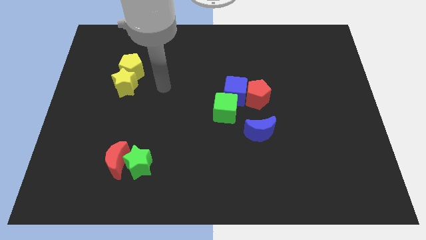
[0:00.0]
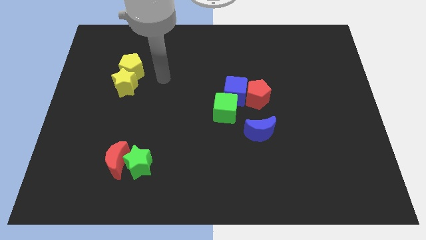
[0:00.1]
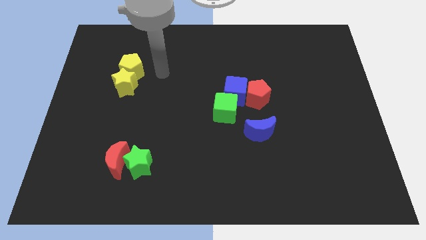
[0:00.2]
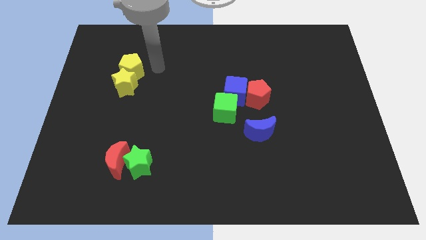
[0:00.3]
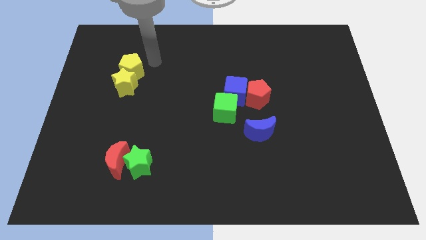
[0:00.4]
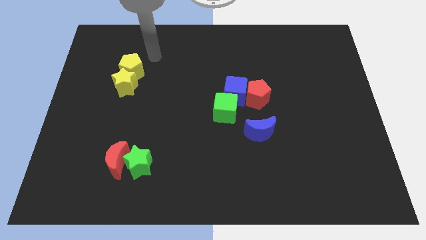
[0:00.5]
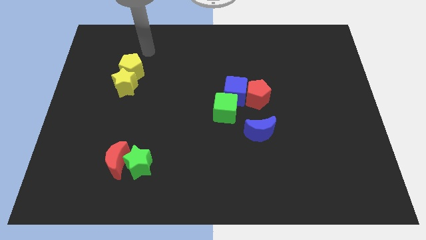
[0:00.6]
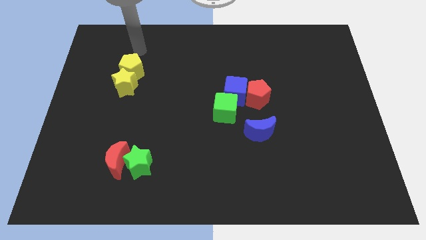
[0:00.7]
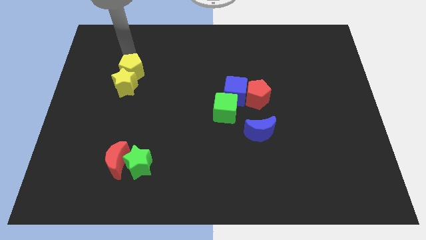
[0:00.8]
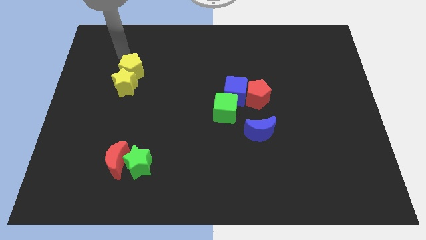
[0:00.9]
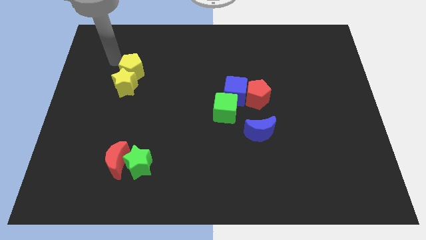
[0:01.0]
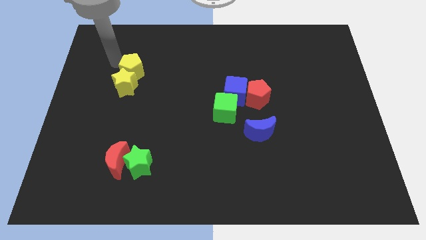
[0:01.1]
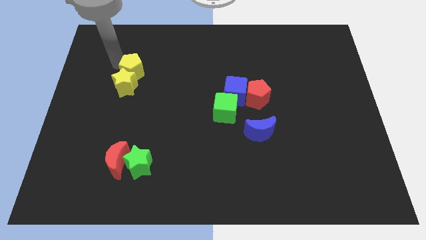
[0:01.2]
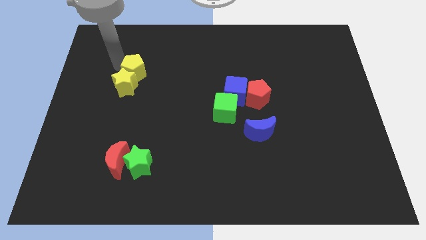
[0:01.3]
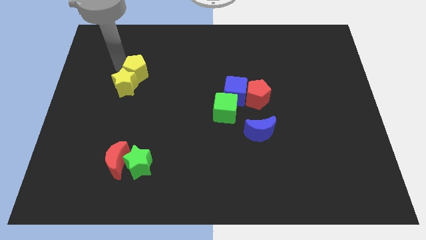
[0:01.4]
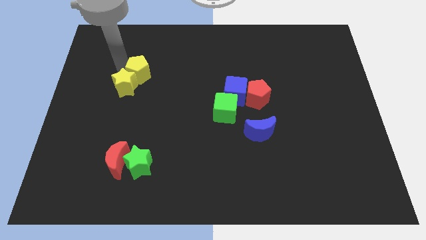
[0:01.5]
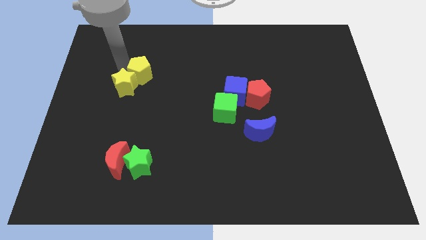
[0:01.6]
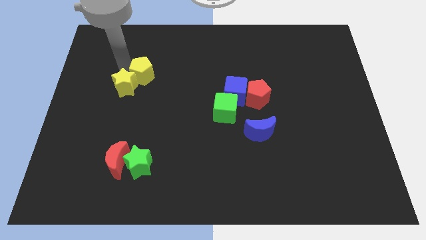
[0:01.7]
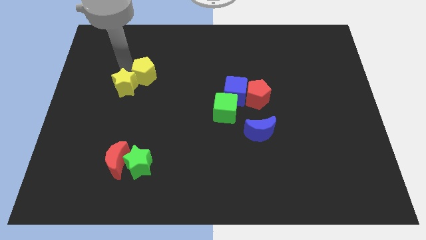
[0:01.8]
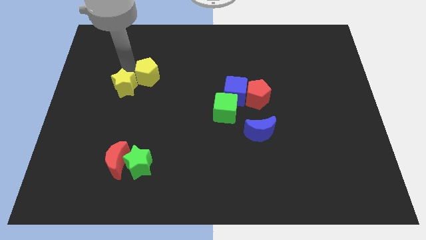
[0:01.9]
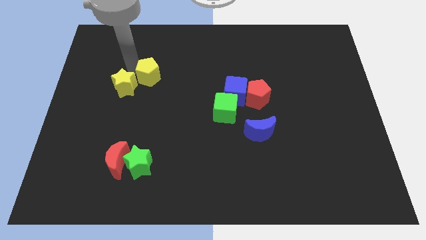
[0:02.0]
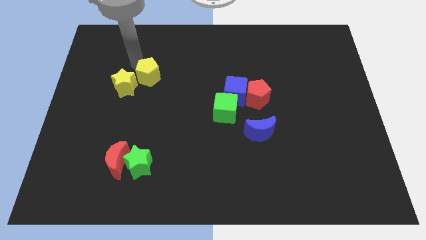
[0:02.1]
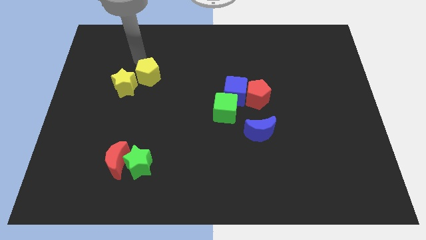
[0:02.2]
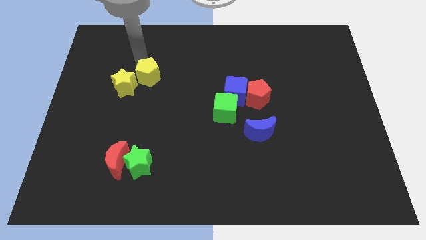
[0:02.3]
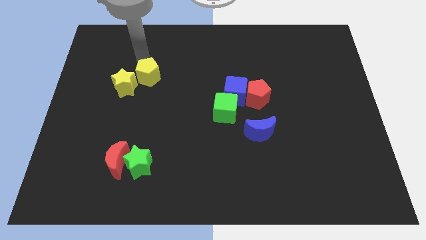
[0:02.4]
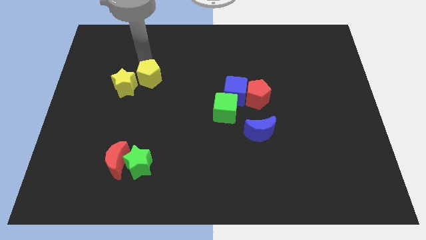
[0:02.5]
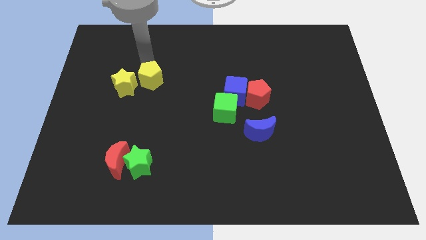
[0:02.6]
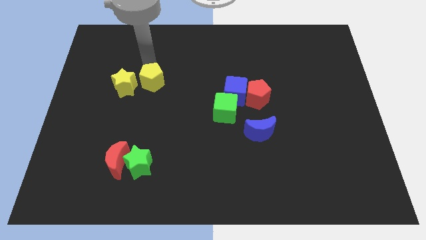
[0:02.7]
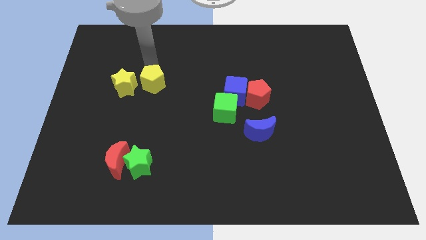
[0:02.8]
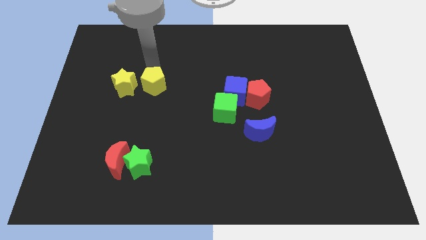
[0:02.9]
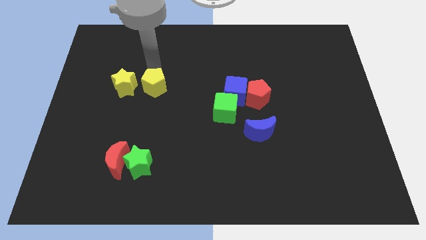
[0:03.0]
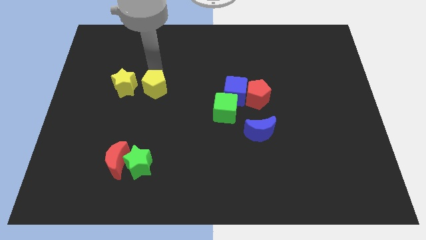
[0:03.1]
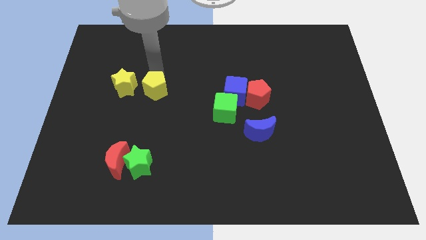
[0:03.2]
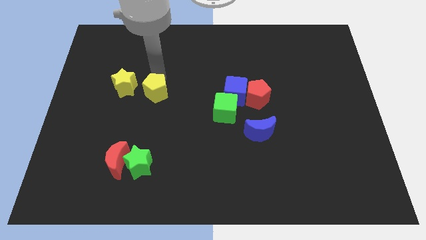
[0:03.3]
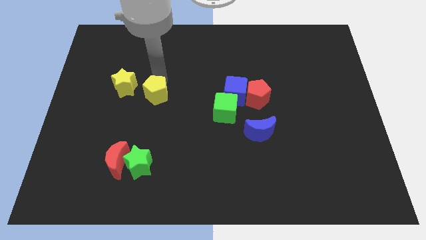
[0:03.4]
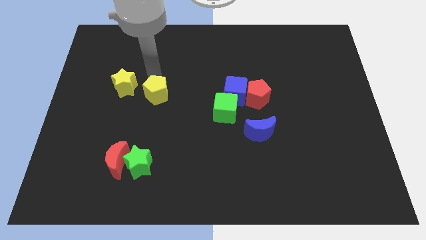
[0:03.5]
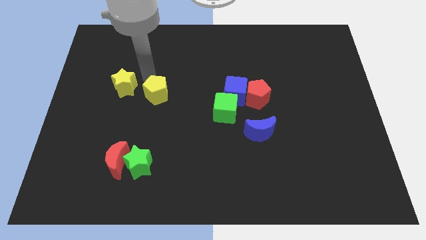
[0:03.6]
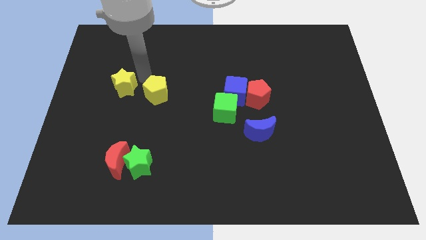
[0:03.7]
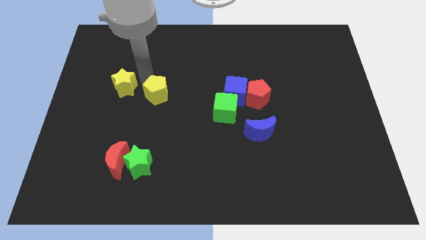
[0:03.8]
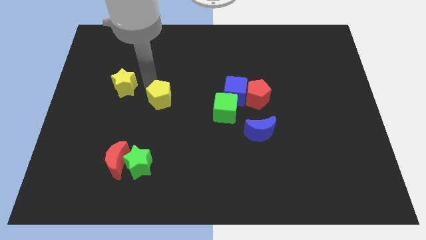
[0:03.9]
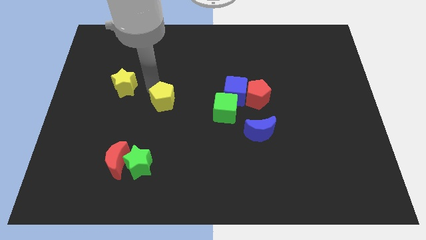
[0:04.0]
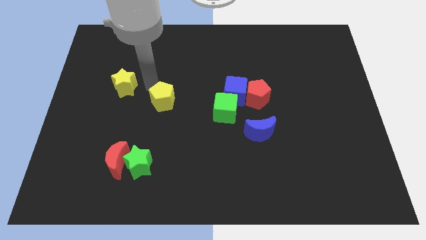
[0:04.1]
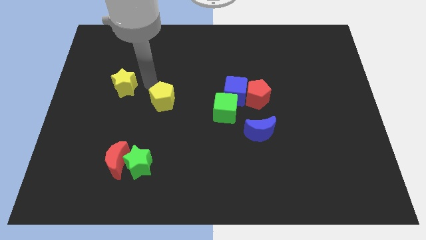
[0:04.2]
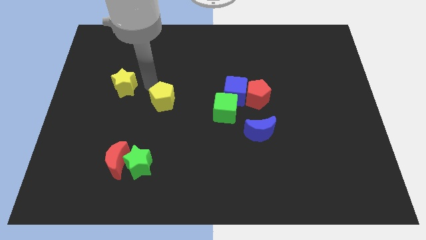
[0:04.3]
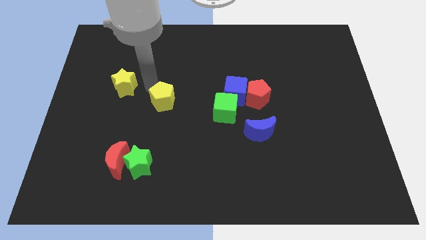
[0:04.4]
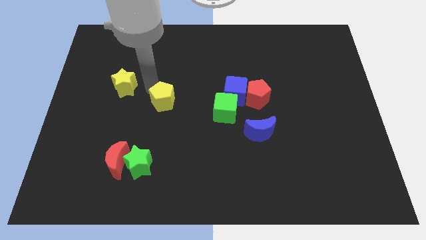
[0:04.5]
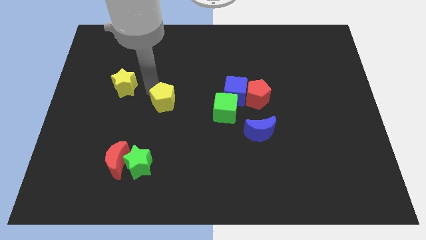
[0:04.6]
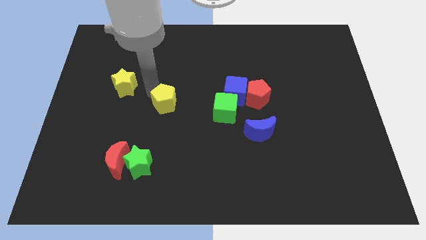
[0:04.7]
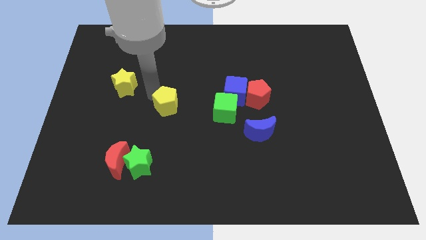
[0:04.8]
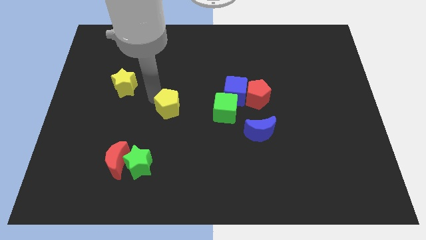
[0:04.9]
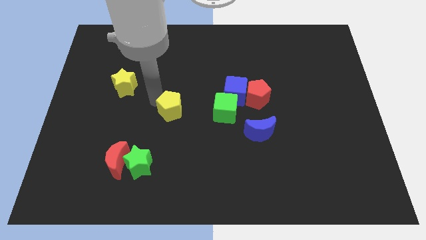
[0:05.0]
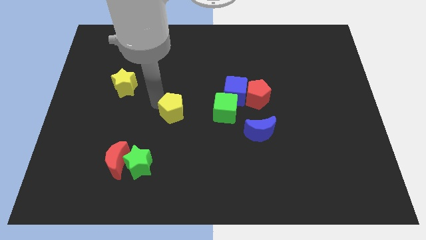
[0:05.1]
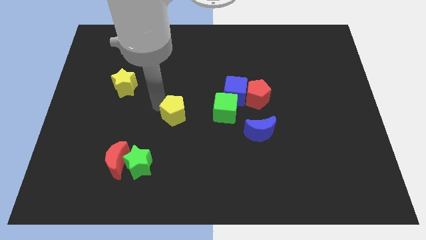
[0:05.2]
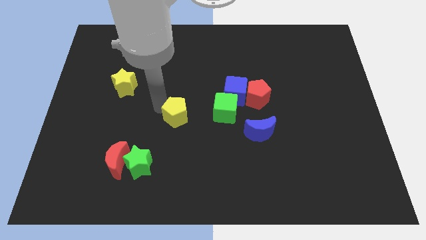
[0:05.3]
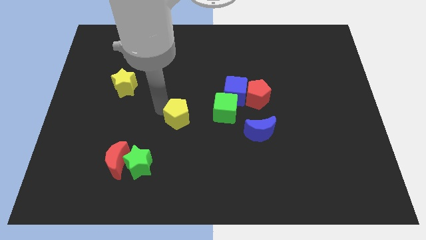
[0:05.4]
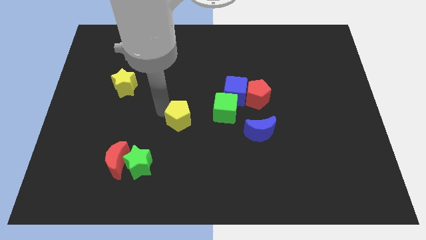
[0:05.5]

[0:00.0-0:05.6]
push the yellow pentagon downwards and right

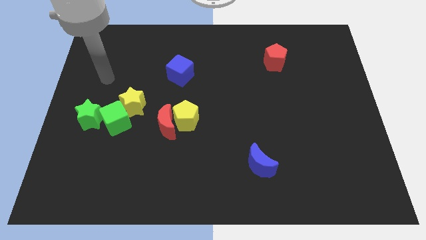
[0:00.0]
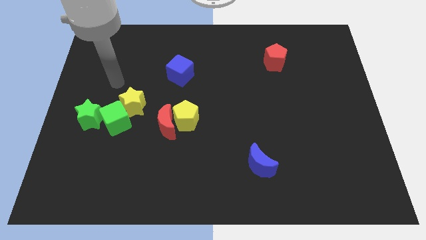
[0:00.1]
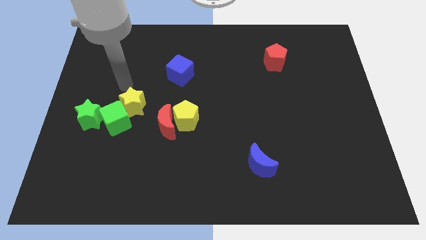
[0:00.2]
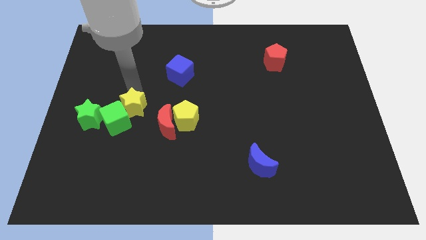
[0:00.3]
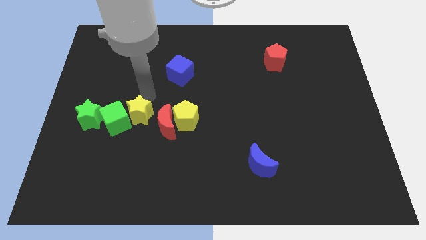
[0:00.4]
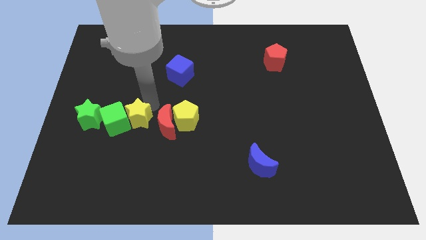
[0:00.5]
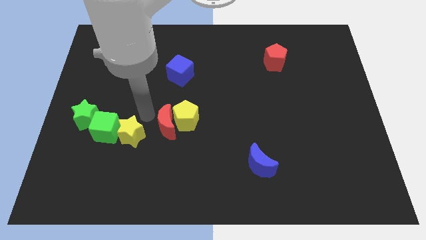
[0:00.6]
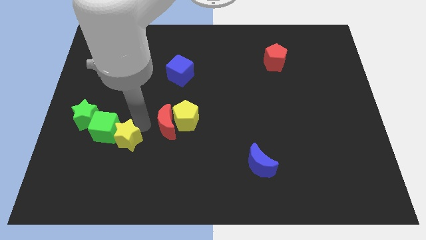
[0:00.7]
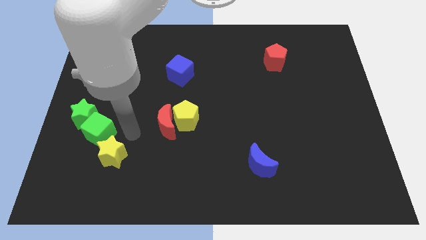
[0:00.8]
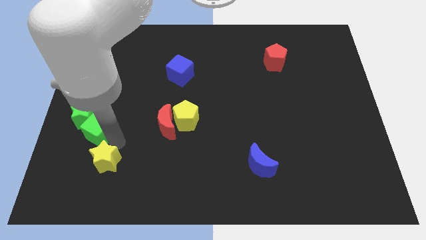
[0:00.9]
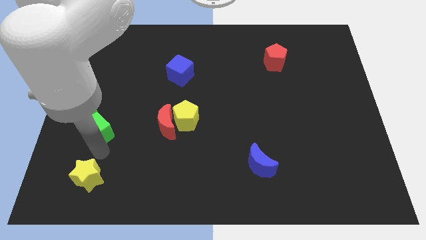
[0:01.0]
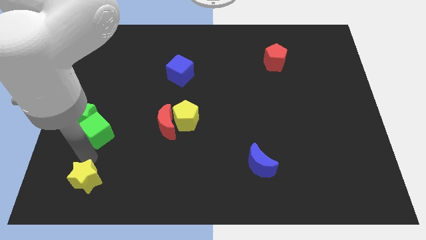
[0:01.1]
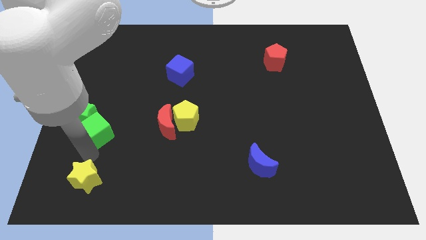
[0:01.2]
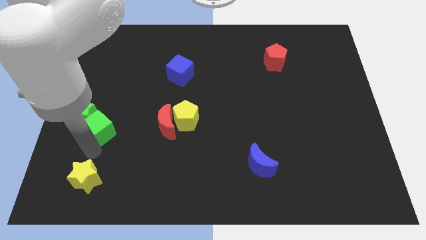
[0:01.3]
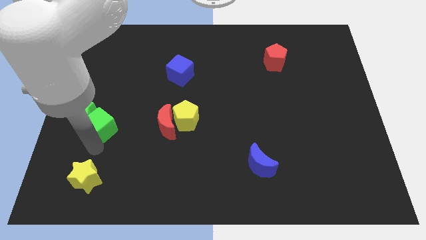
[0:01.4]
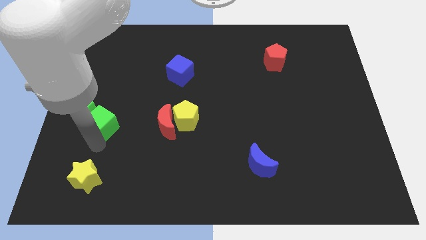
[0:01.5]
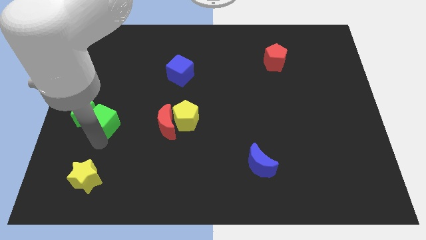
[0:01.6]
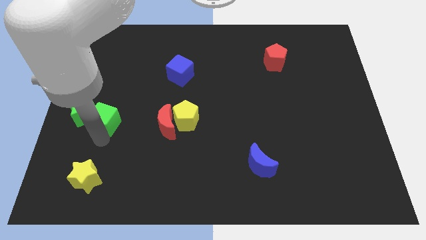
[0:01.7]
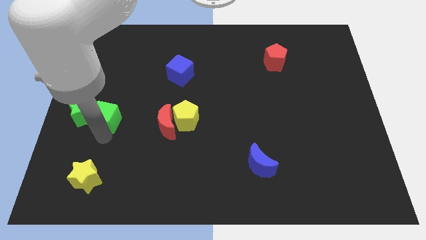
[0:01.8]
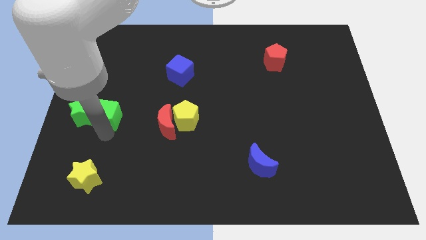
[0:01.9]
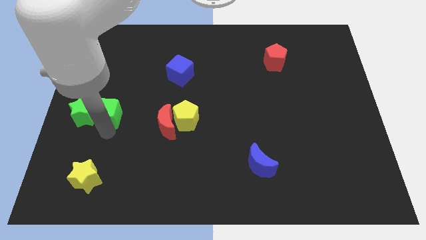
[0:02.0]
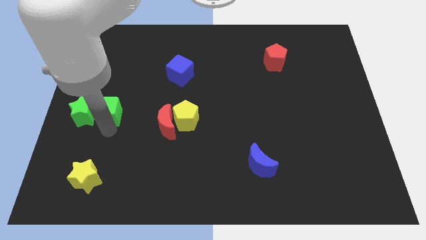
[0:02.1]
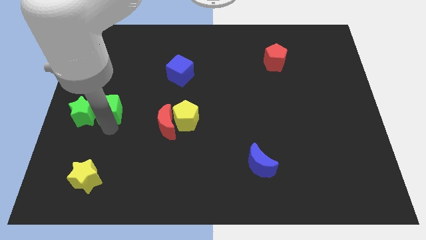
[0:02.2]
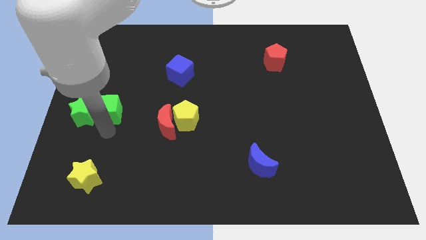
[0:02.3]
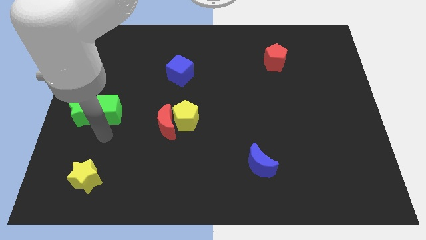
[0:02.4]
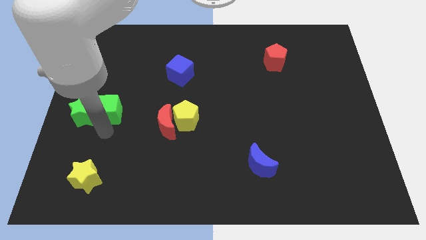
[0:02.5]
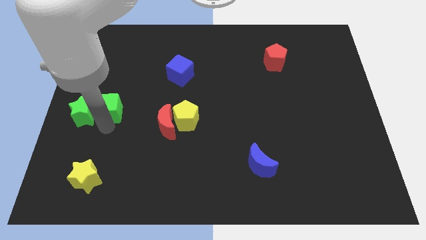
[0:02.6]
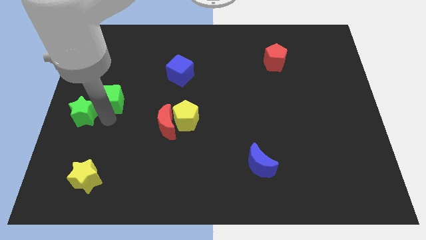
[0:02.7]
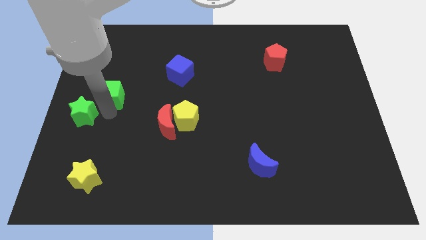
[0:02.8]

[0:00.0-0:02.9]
move the green cube up a little bit
